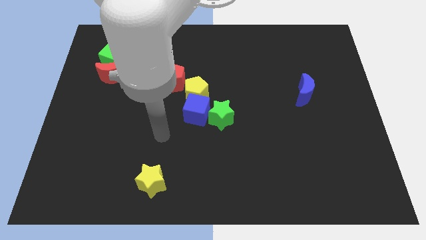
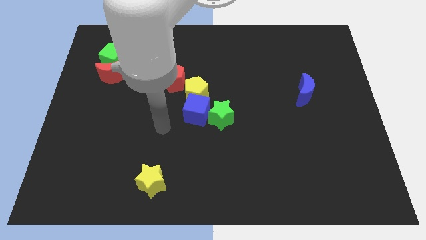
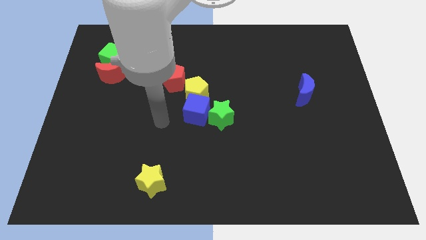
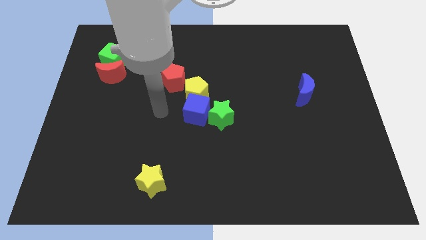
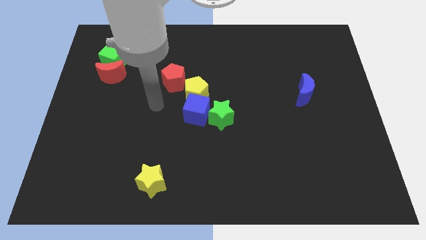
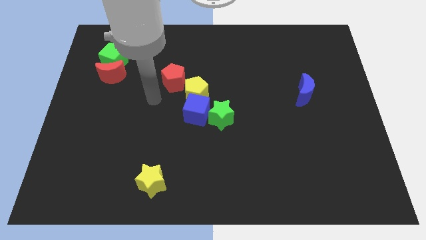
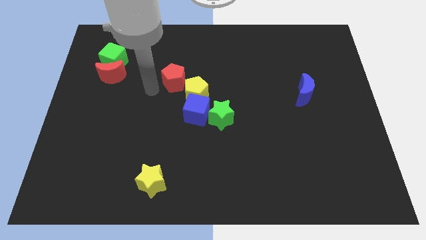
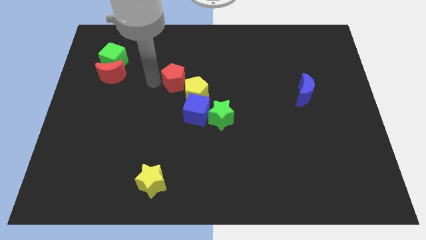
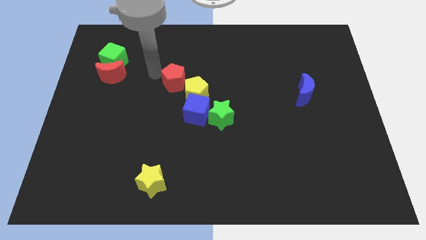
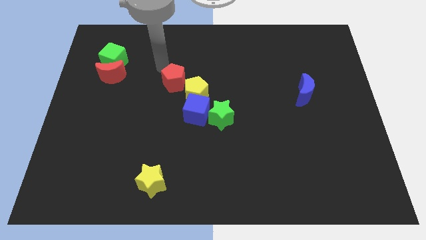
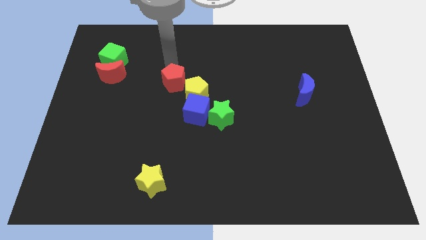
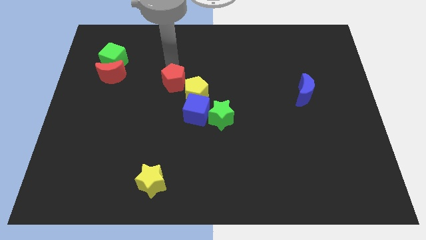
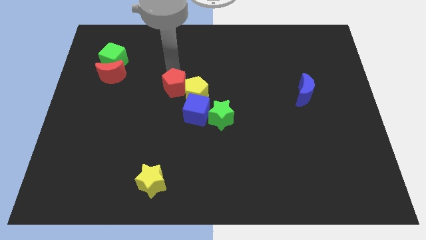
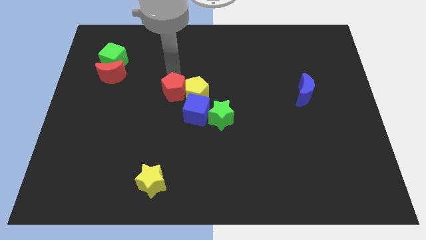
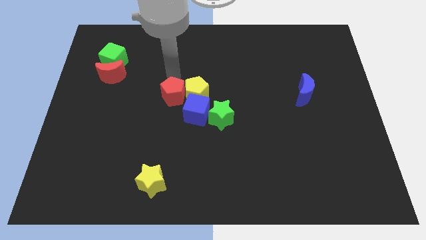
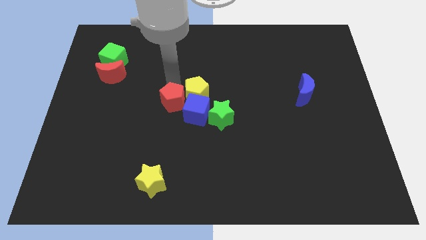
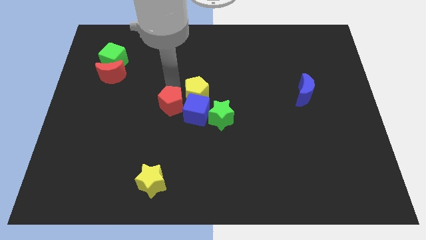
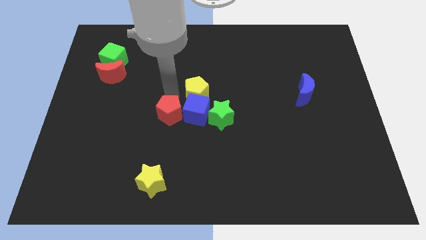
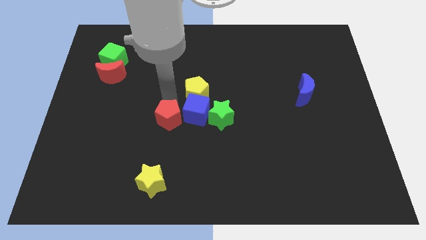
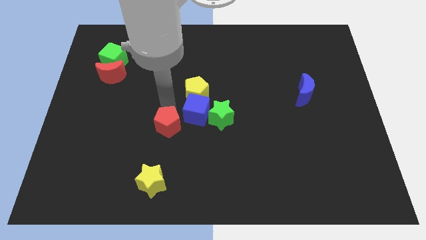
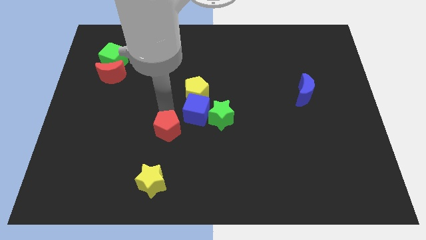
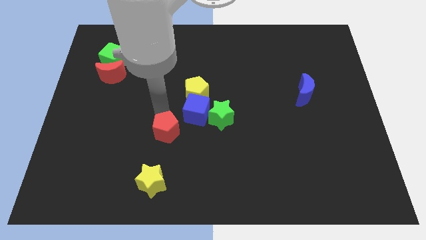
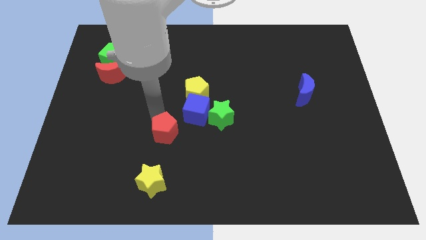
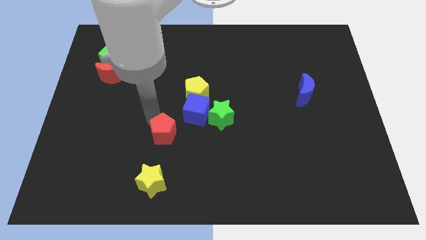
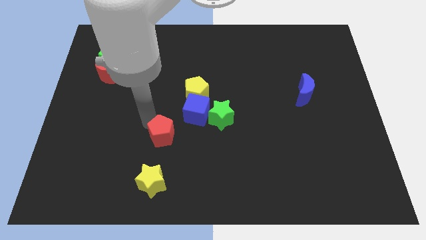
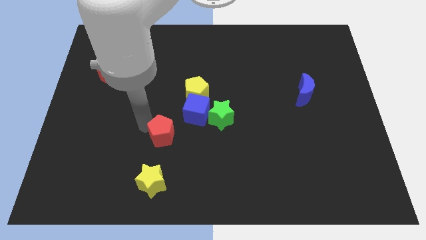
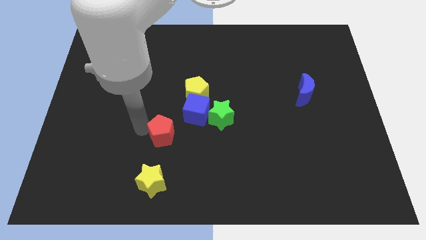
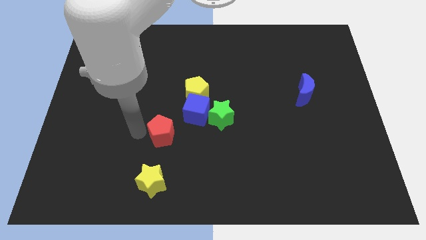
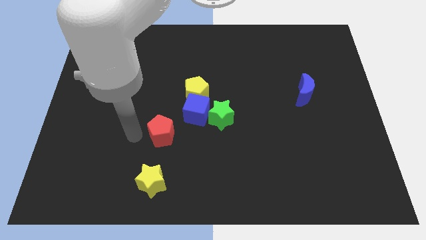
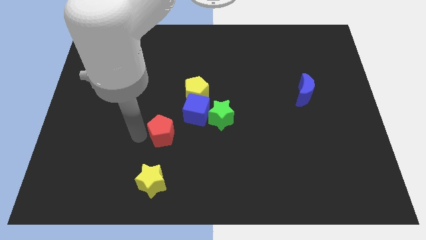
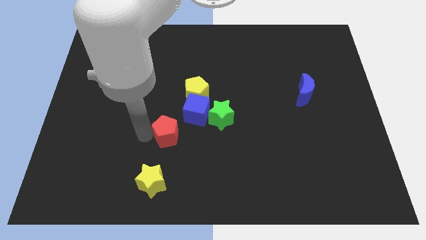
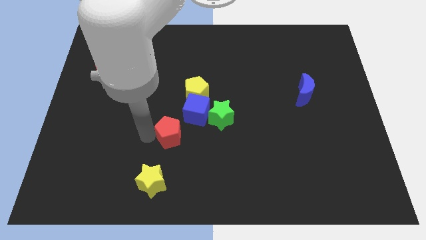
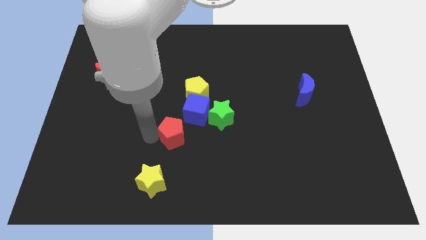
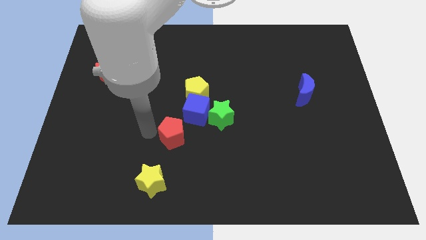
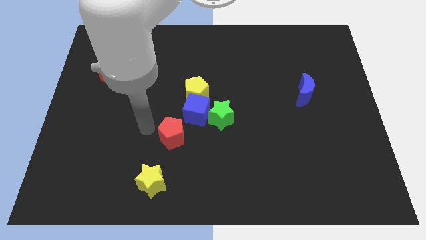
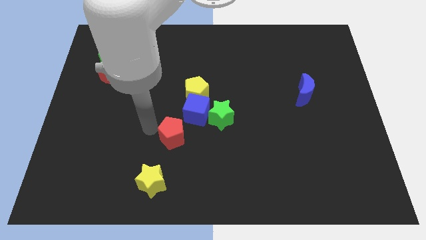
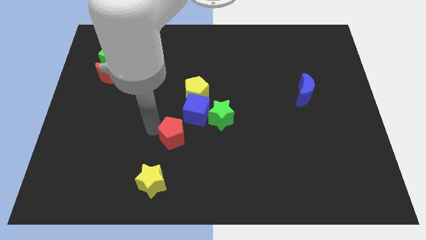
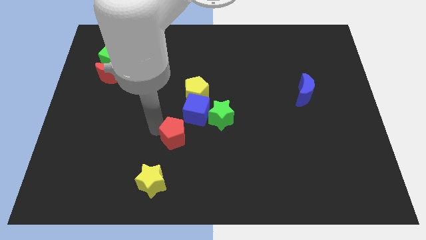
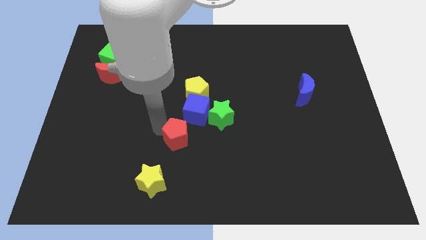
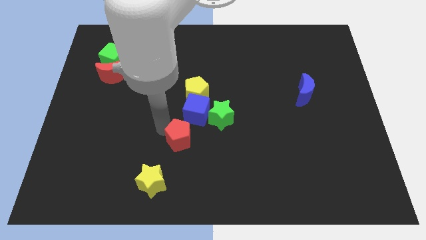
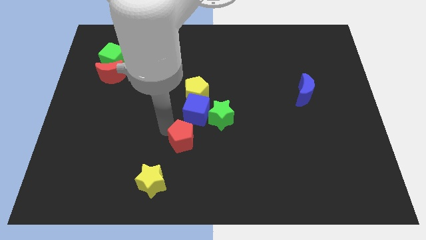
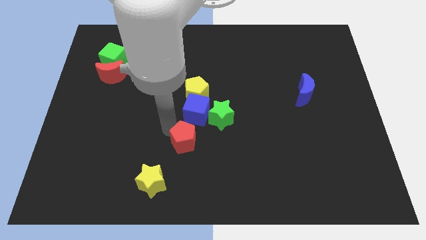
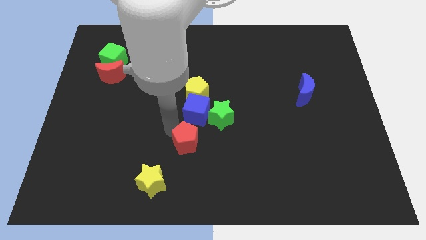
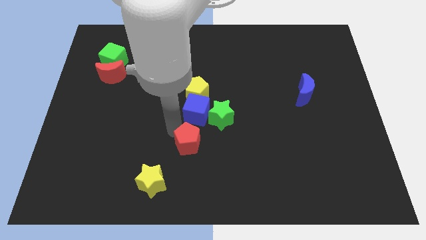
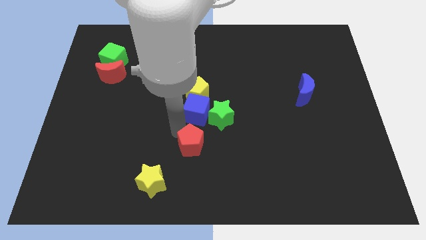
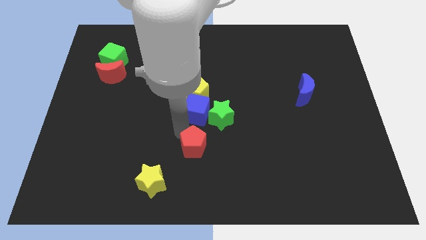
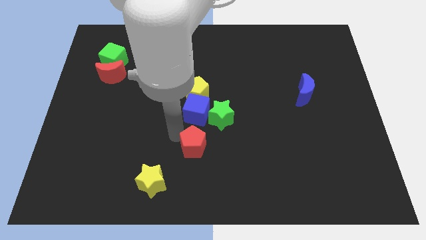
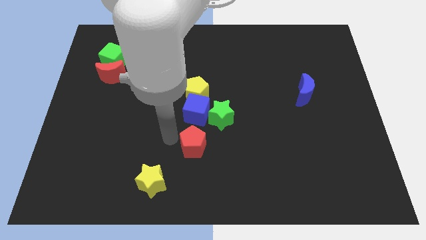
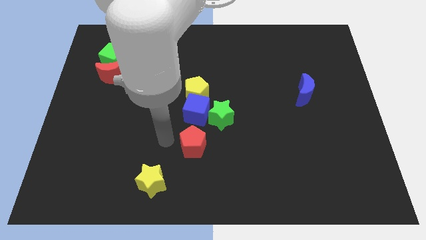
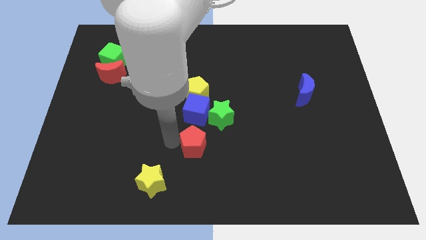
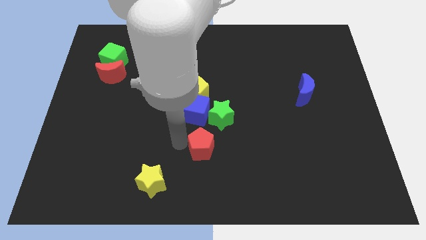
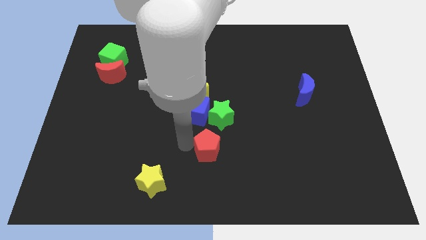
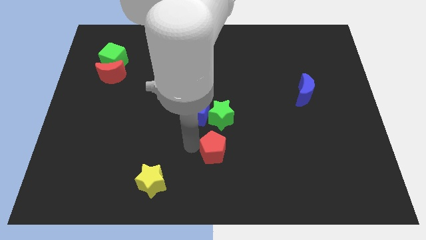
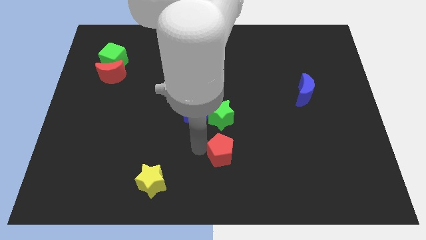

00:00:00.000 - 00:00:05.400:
push the red pentagon downwards and to the right diagonally

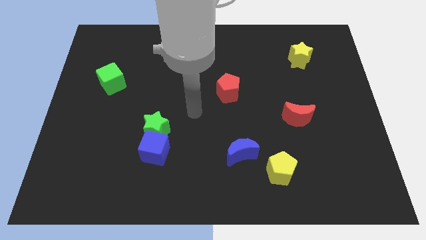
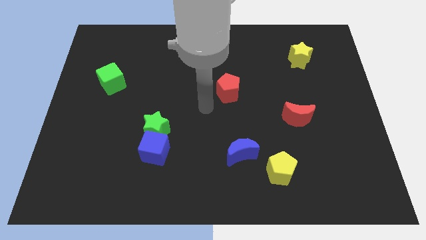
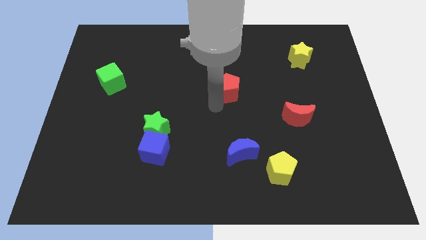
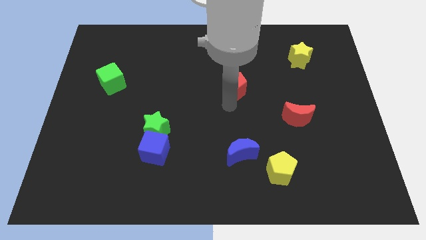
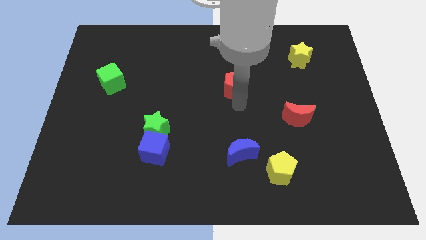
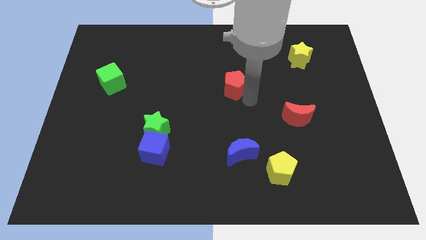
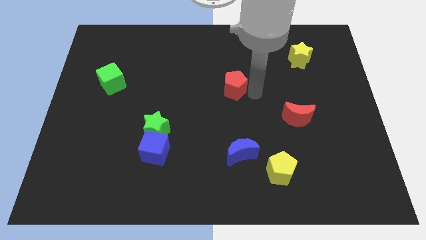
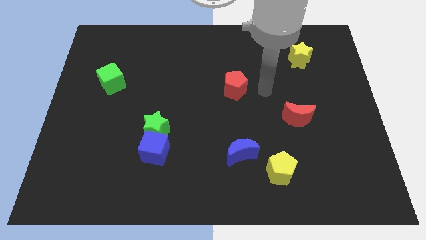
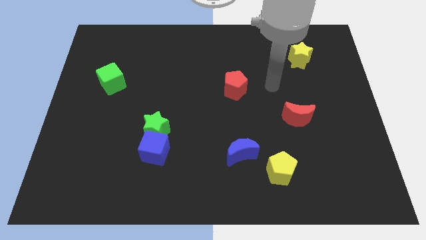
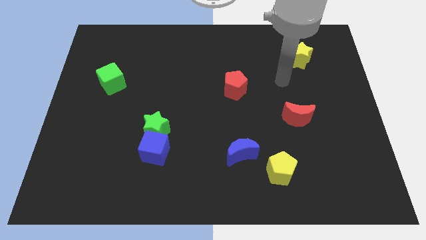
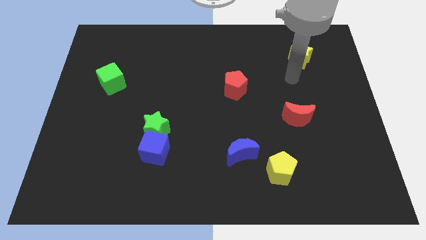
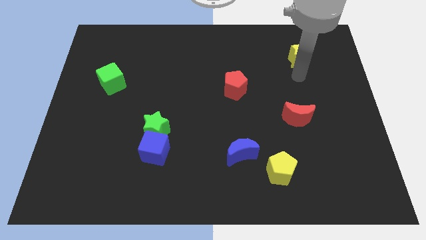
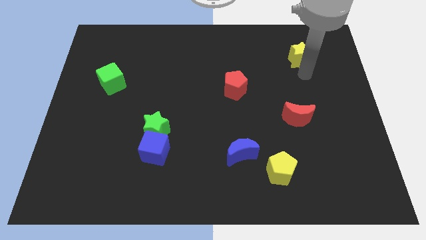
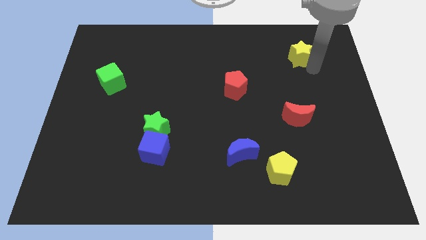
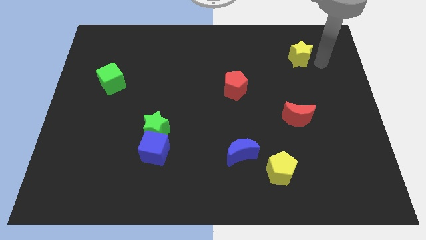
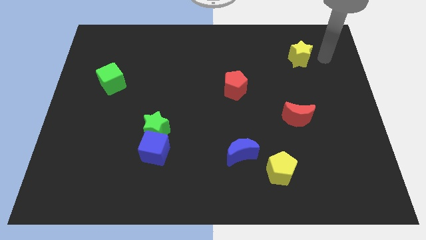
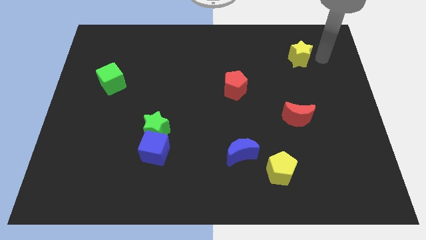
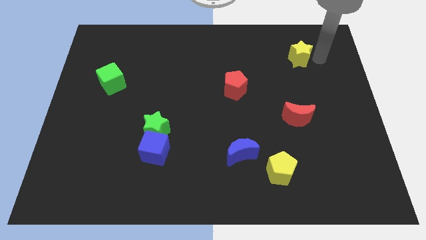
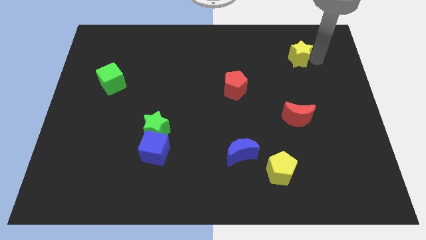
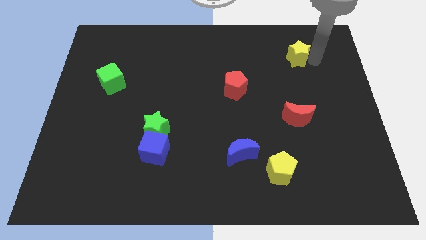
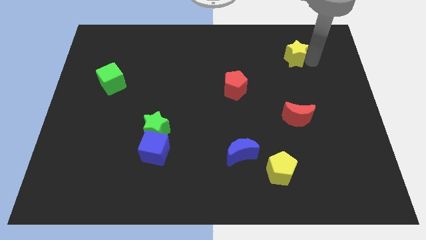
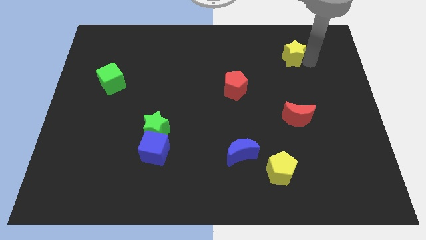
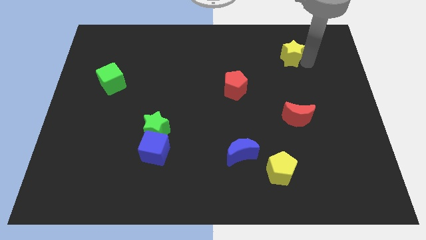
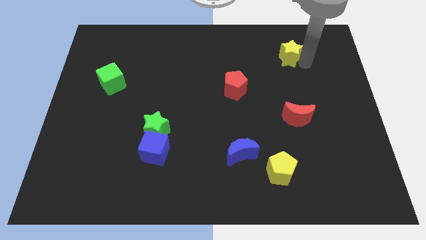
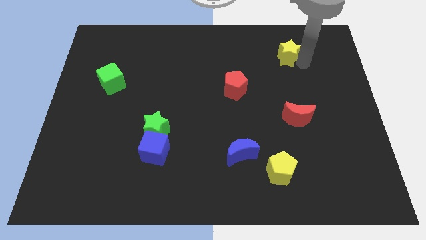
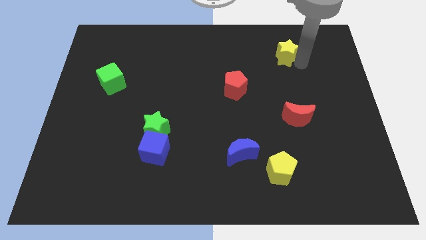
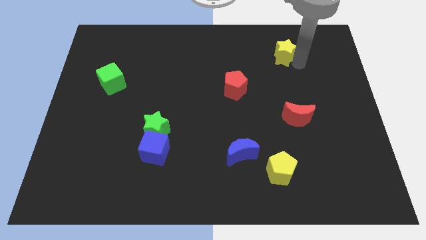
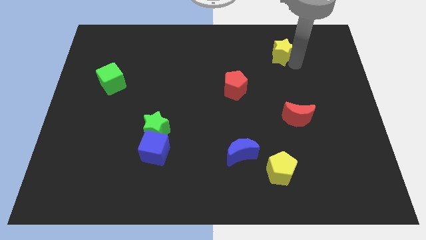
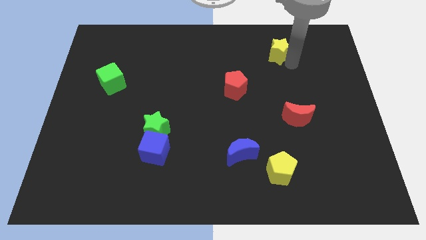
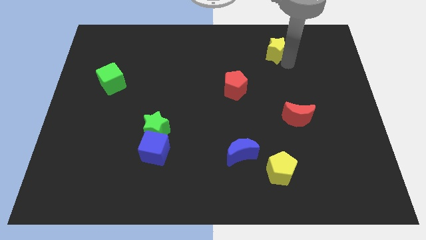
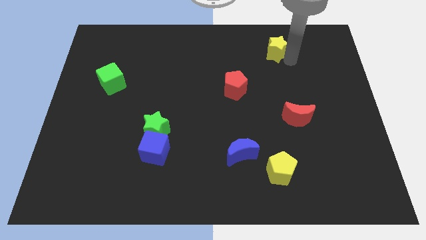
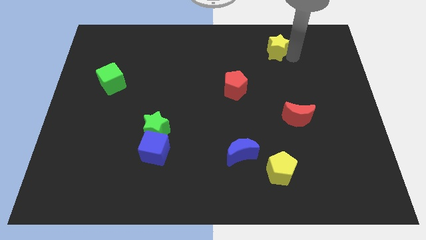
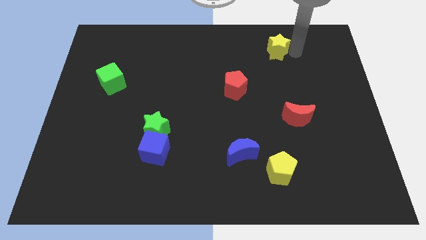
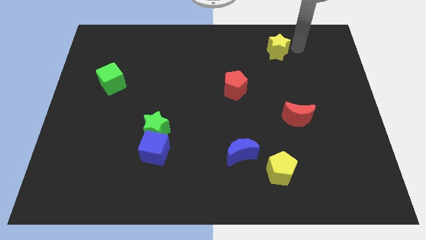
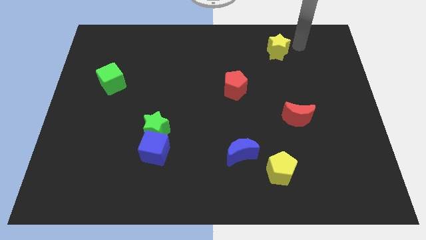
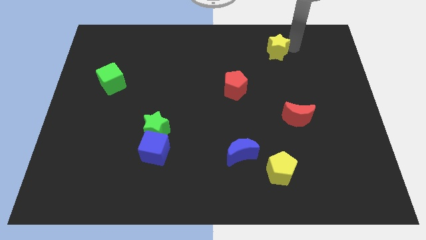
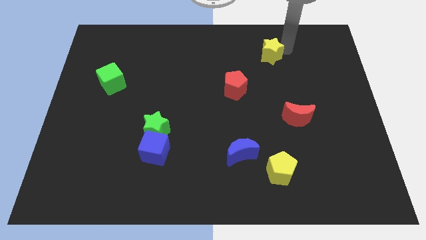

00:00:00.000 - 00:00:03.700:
slide the yellow star to the left a bit
